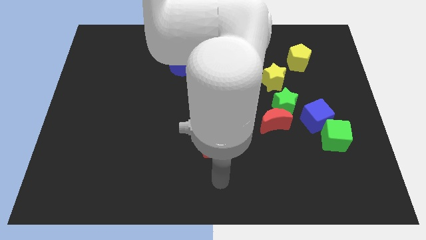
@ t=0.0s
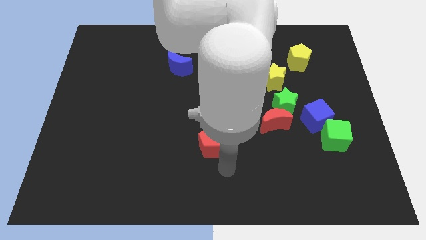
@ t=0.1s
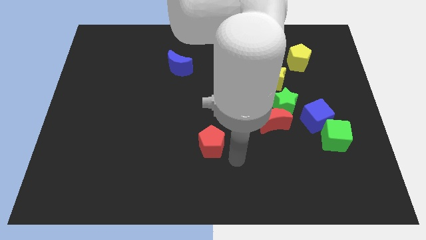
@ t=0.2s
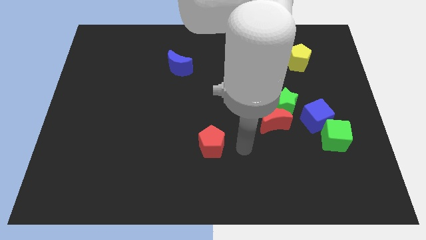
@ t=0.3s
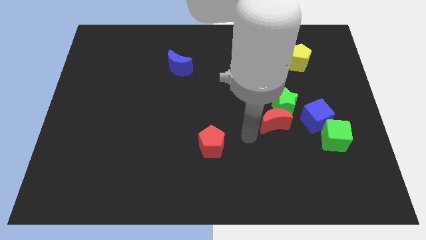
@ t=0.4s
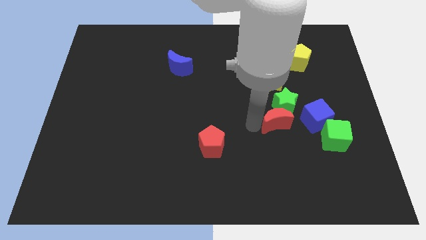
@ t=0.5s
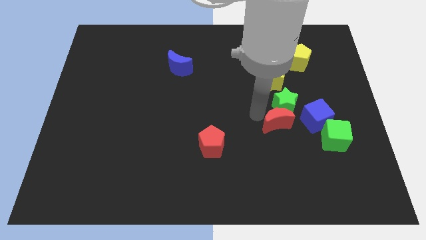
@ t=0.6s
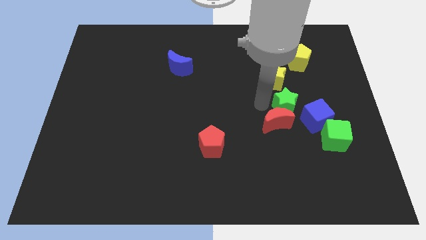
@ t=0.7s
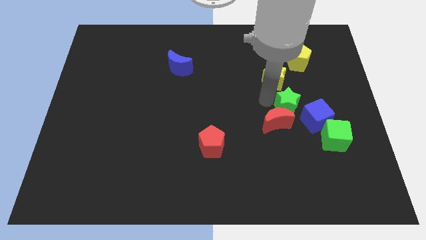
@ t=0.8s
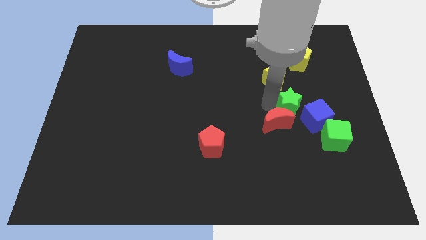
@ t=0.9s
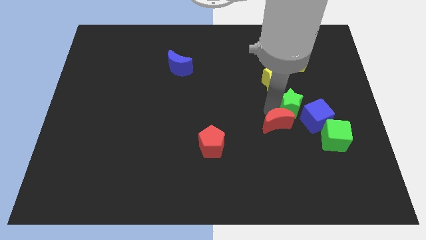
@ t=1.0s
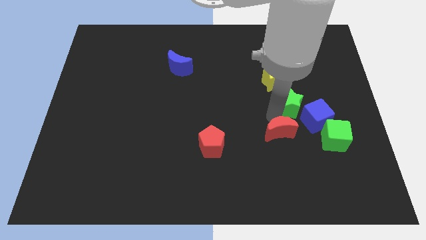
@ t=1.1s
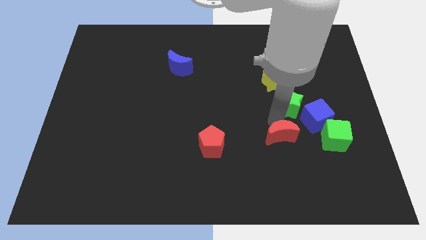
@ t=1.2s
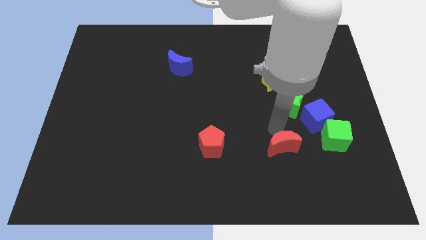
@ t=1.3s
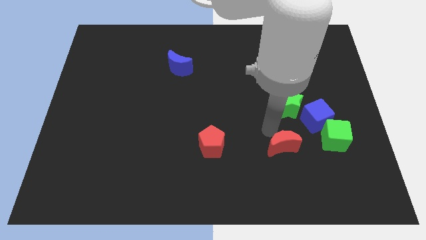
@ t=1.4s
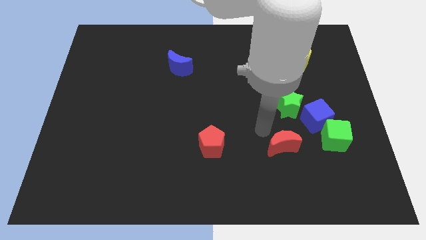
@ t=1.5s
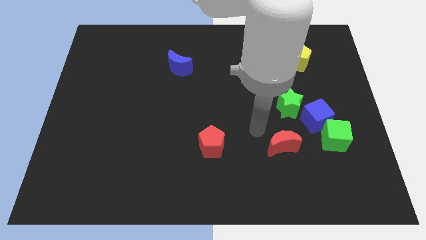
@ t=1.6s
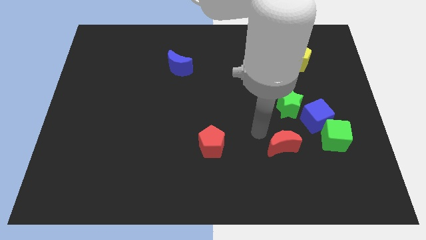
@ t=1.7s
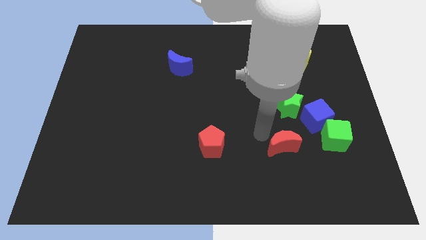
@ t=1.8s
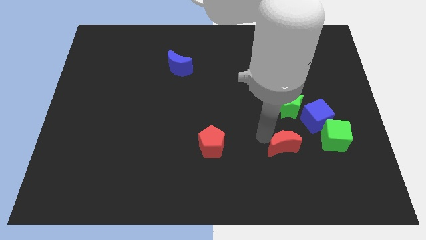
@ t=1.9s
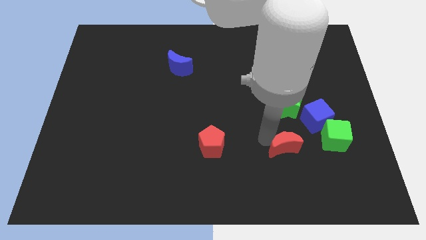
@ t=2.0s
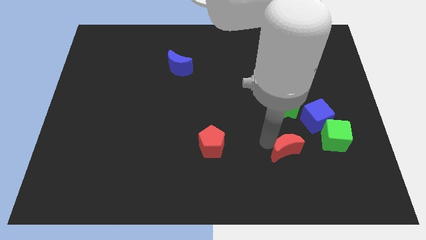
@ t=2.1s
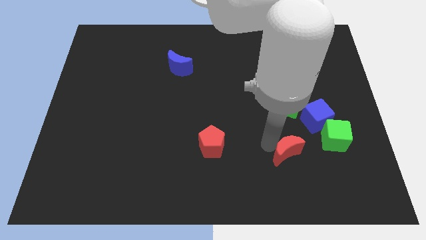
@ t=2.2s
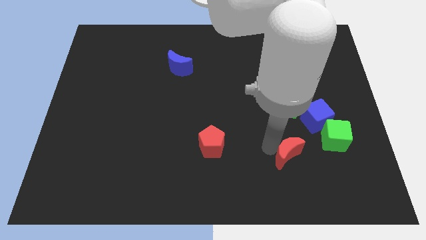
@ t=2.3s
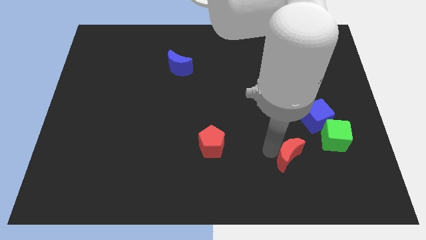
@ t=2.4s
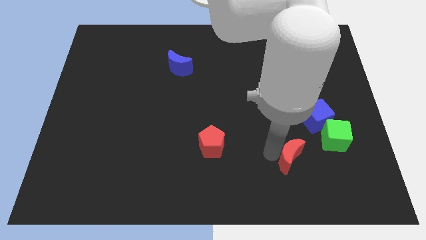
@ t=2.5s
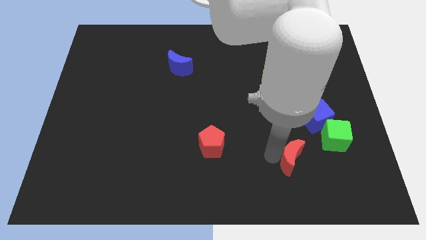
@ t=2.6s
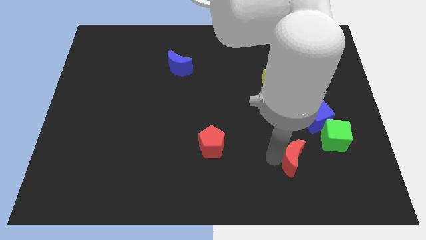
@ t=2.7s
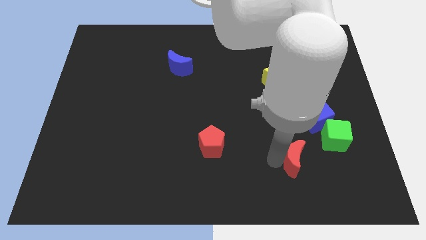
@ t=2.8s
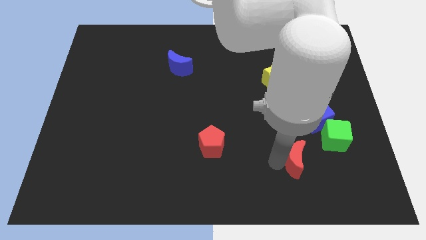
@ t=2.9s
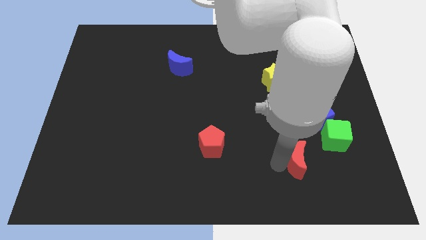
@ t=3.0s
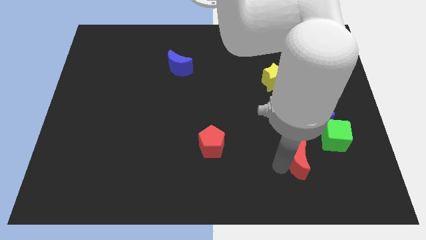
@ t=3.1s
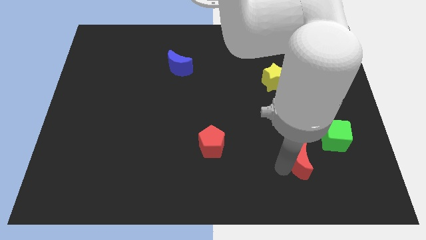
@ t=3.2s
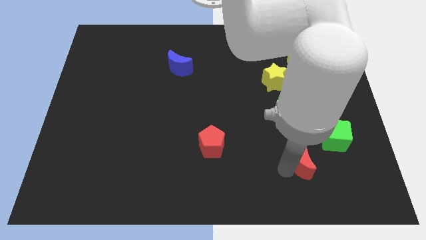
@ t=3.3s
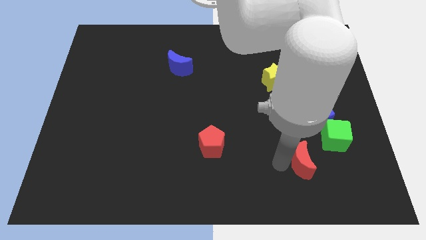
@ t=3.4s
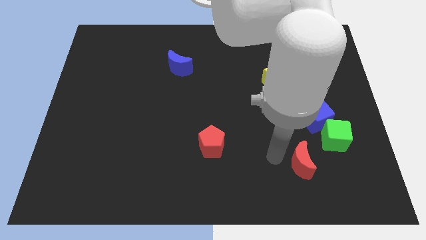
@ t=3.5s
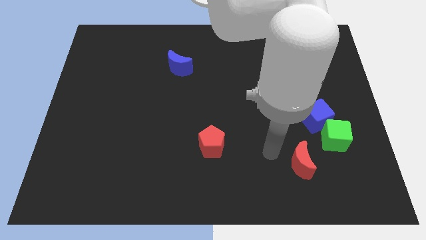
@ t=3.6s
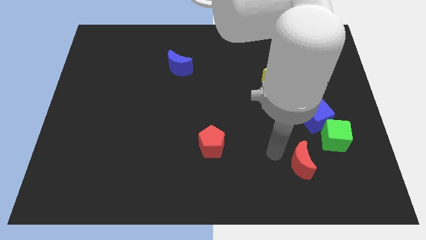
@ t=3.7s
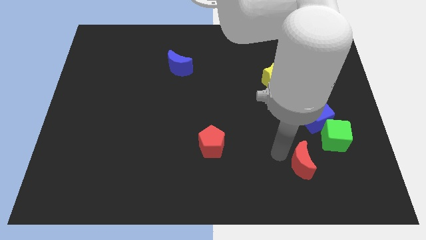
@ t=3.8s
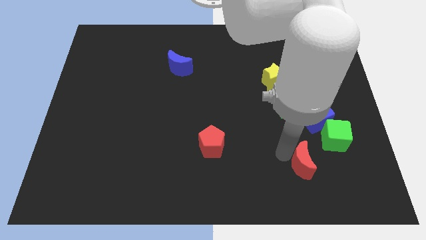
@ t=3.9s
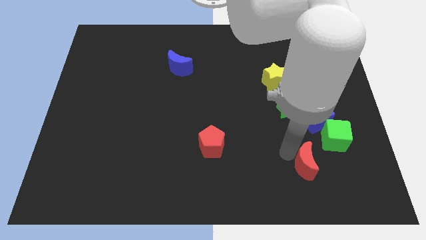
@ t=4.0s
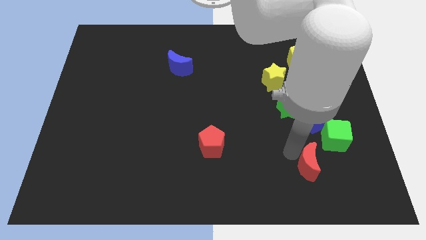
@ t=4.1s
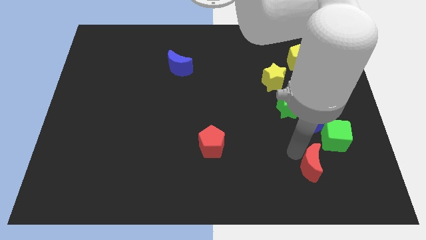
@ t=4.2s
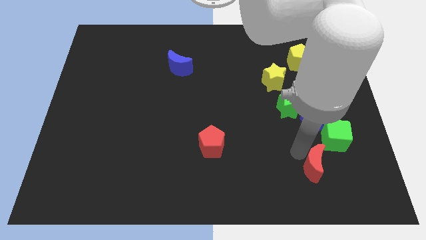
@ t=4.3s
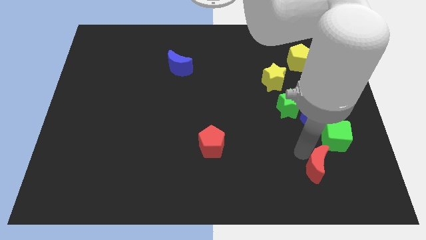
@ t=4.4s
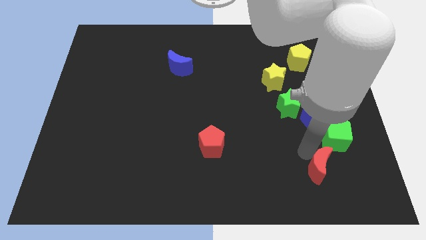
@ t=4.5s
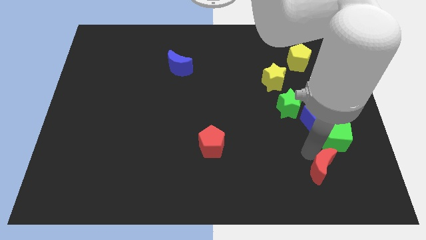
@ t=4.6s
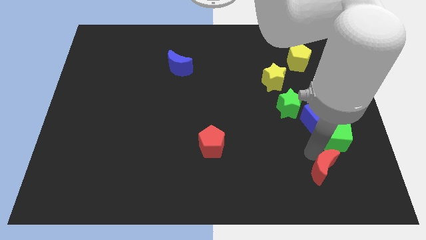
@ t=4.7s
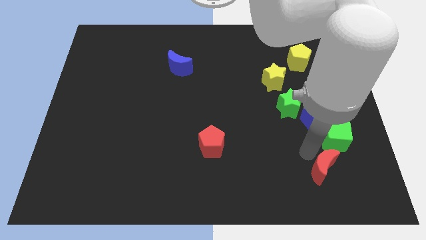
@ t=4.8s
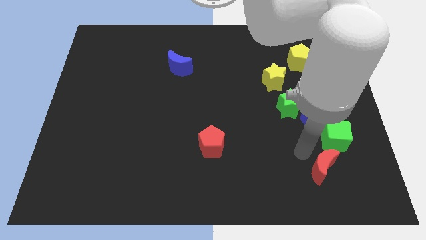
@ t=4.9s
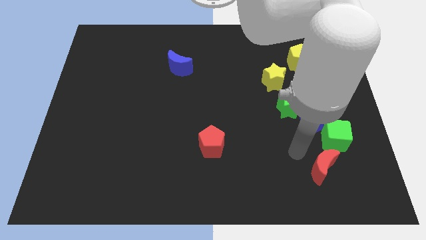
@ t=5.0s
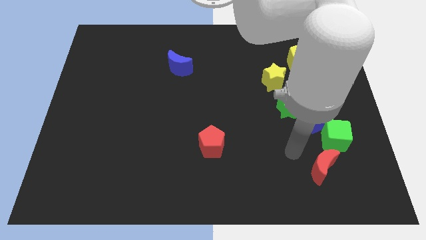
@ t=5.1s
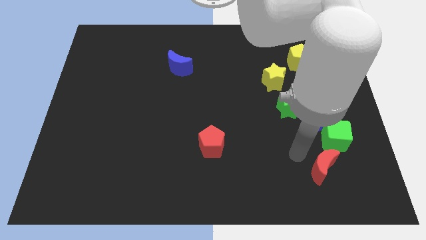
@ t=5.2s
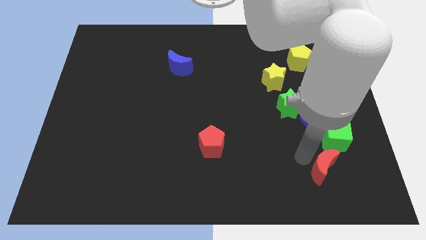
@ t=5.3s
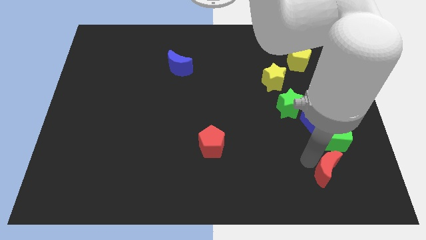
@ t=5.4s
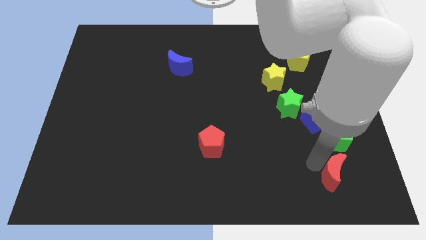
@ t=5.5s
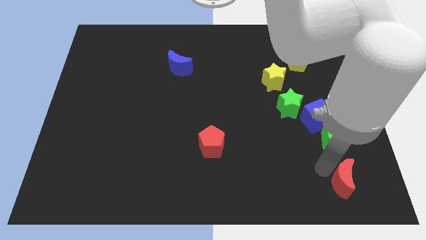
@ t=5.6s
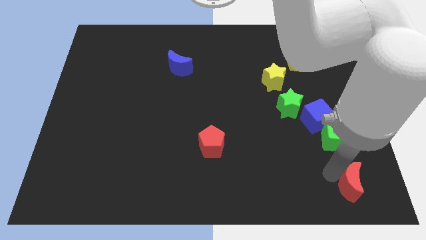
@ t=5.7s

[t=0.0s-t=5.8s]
put the red moon to the bottom right corner
